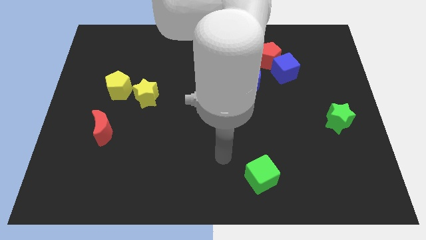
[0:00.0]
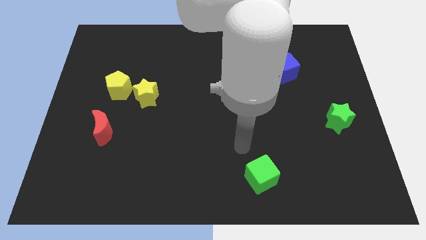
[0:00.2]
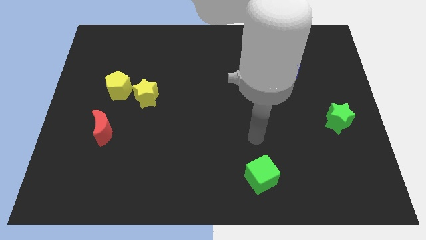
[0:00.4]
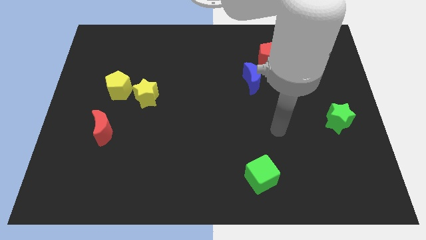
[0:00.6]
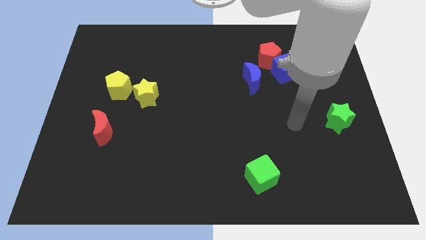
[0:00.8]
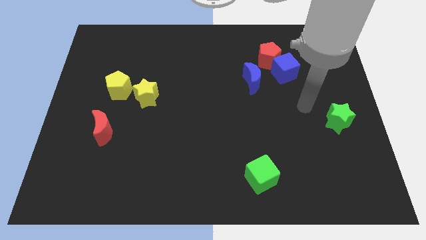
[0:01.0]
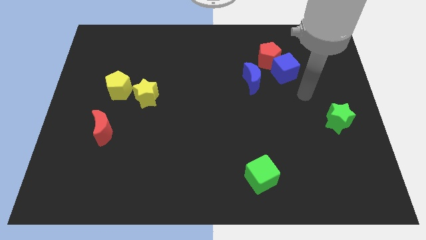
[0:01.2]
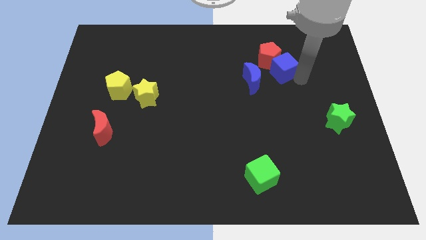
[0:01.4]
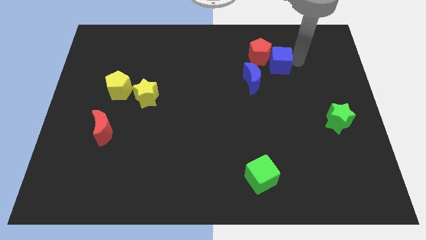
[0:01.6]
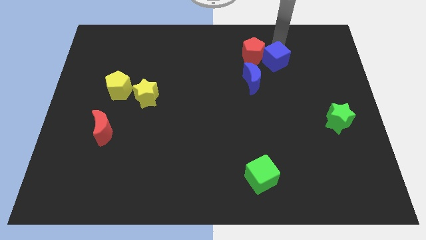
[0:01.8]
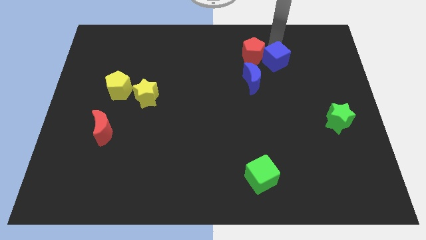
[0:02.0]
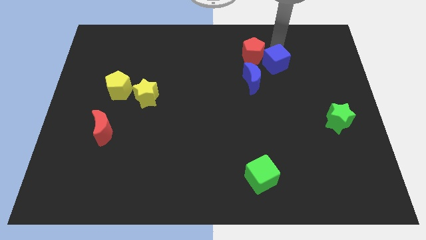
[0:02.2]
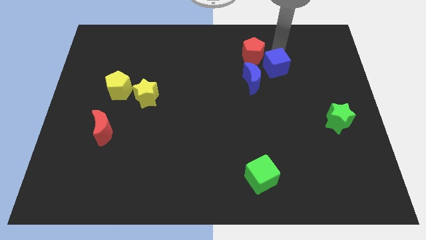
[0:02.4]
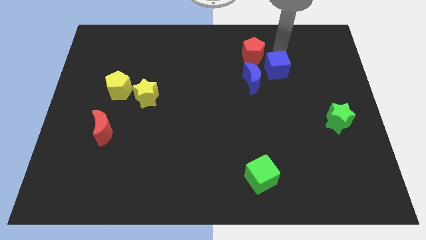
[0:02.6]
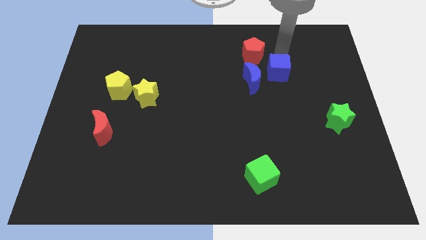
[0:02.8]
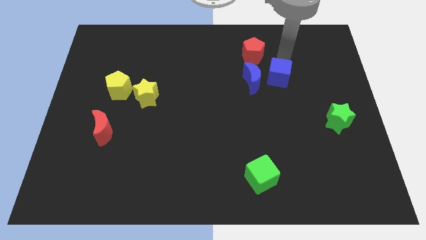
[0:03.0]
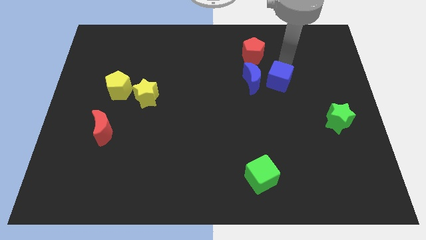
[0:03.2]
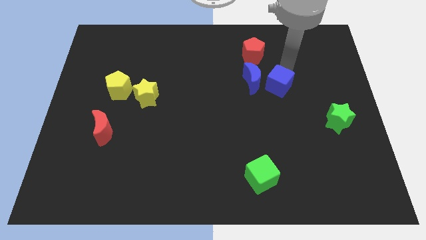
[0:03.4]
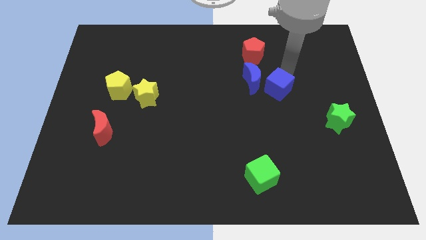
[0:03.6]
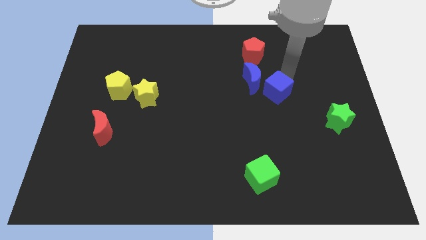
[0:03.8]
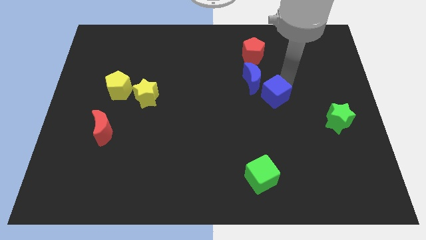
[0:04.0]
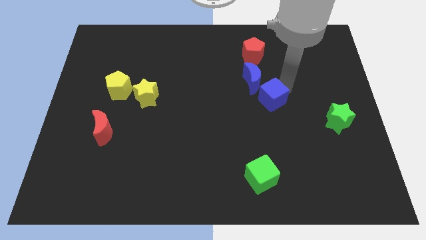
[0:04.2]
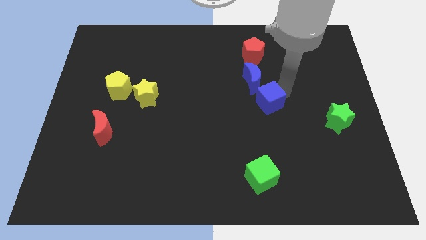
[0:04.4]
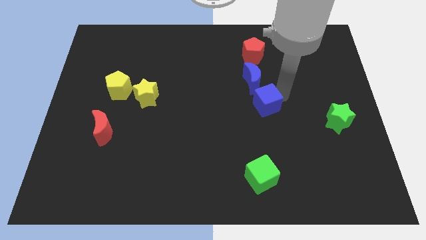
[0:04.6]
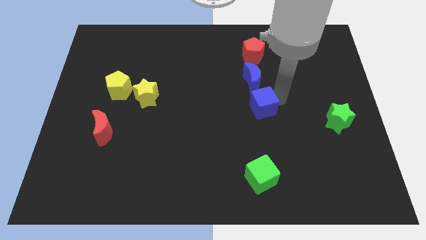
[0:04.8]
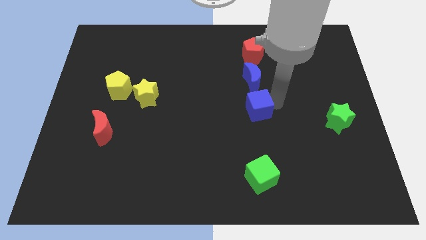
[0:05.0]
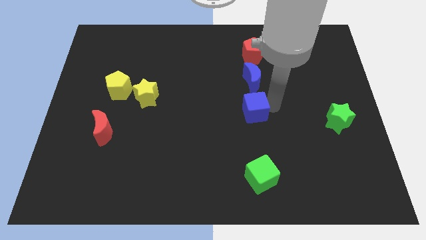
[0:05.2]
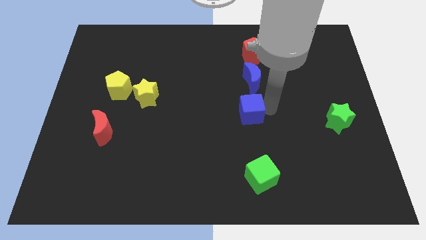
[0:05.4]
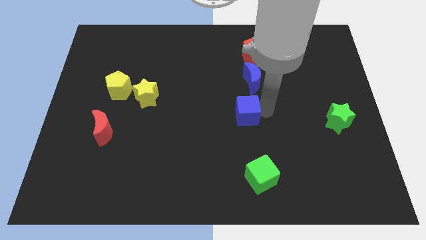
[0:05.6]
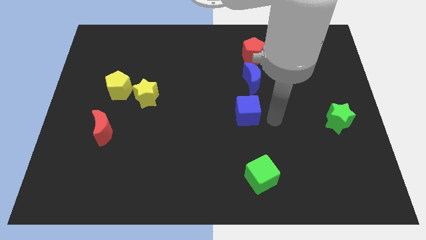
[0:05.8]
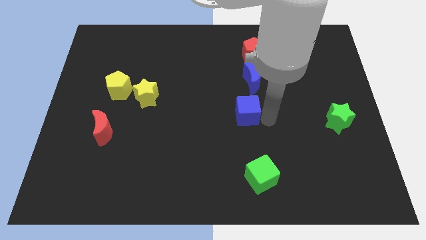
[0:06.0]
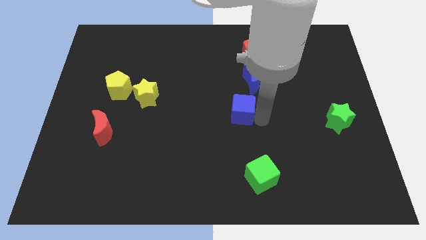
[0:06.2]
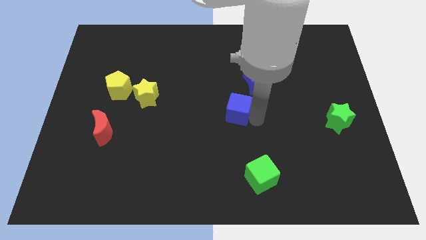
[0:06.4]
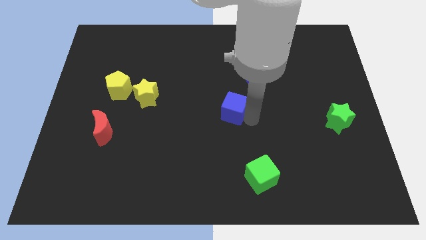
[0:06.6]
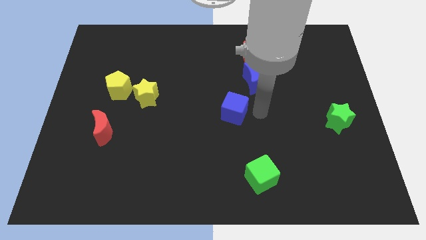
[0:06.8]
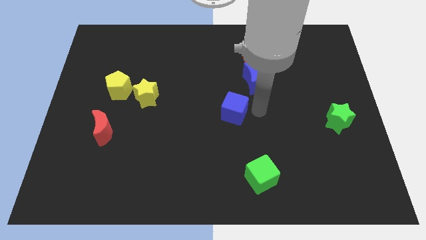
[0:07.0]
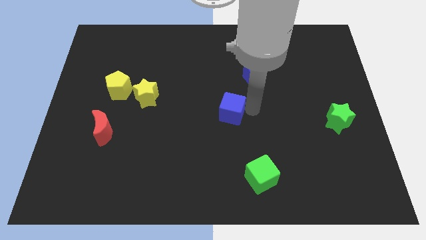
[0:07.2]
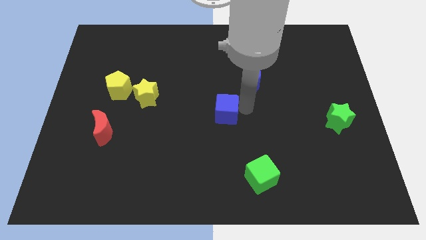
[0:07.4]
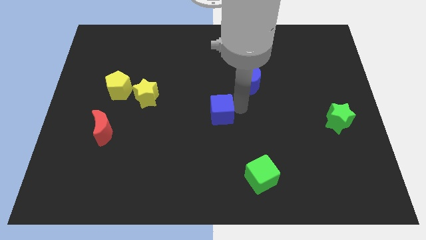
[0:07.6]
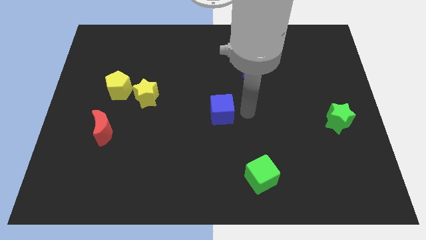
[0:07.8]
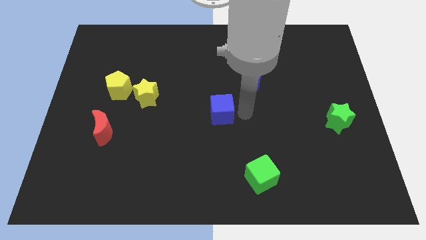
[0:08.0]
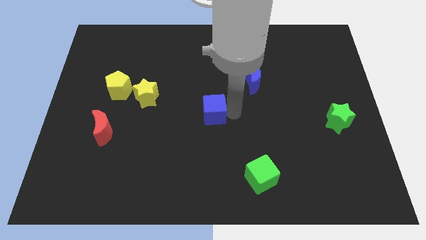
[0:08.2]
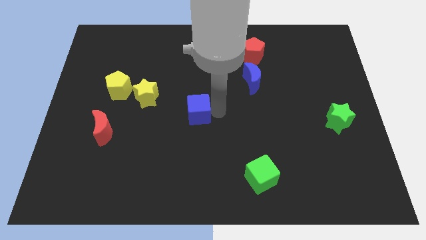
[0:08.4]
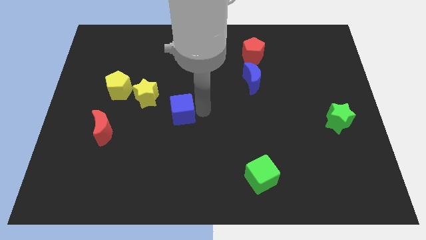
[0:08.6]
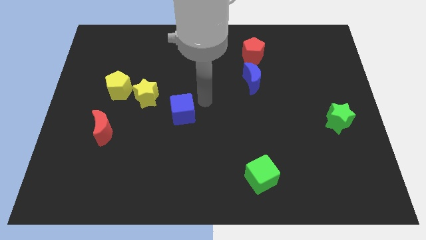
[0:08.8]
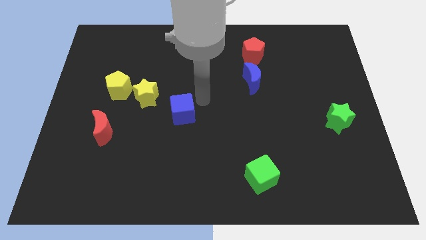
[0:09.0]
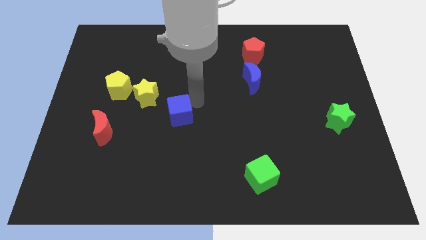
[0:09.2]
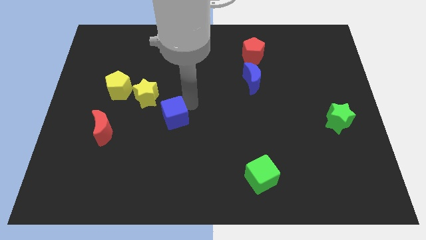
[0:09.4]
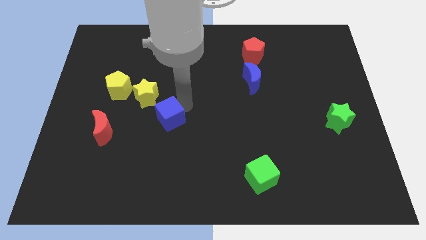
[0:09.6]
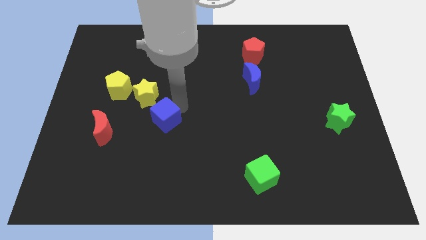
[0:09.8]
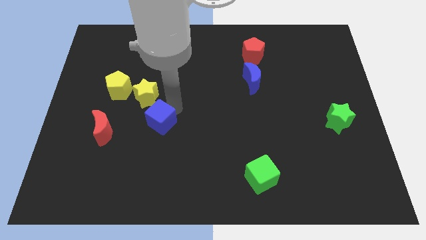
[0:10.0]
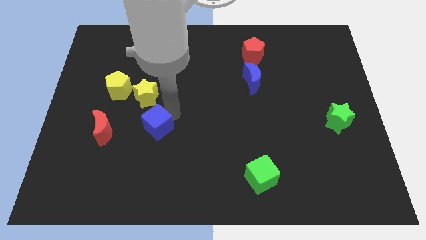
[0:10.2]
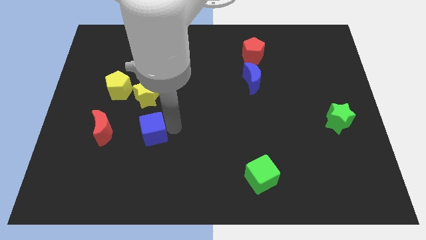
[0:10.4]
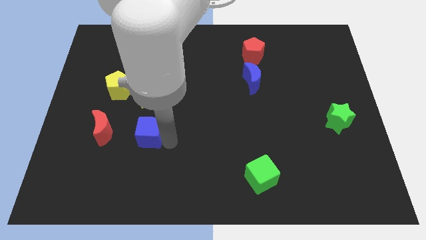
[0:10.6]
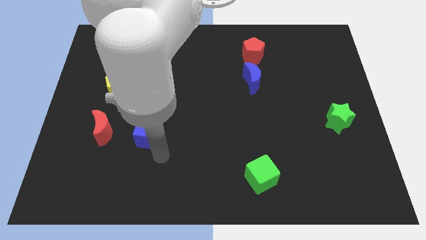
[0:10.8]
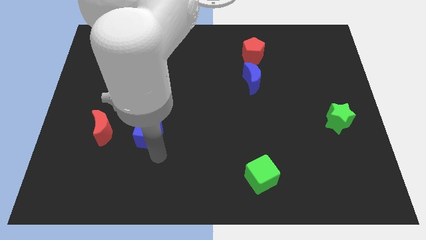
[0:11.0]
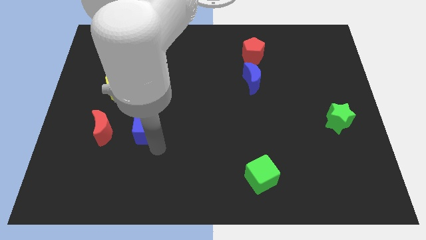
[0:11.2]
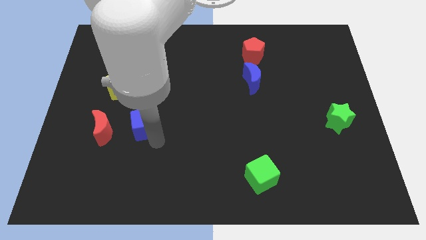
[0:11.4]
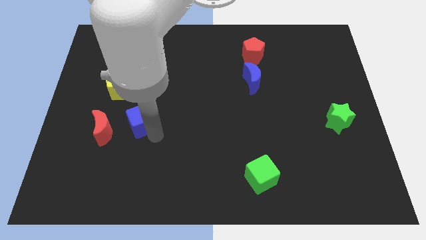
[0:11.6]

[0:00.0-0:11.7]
push the blue cube diagonally down and to the right of the yellow pentagon

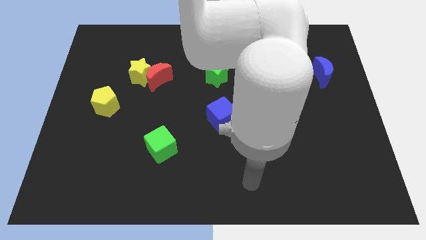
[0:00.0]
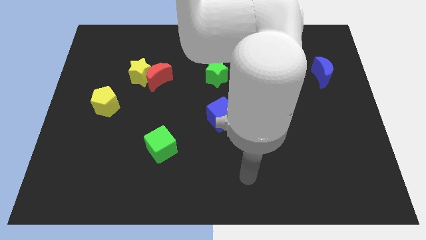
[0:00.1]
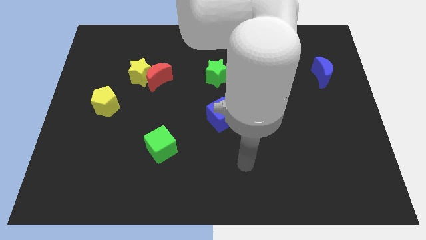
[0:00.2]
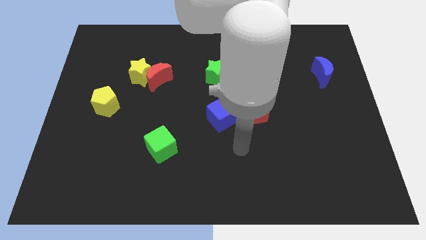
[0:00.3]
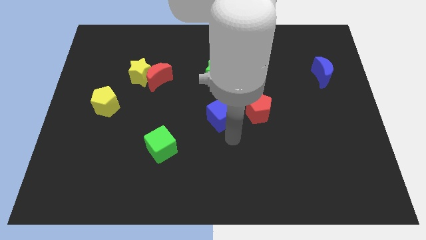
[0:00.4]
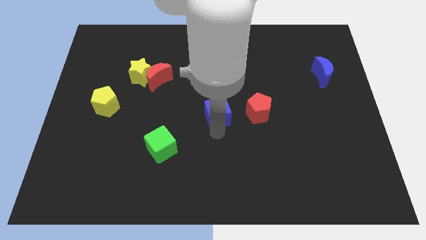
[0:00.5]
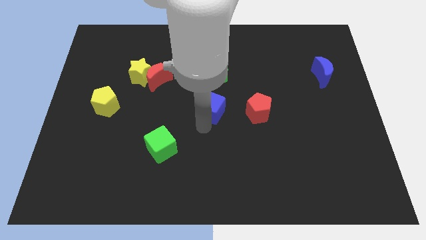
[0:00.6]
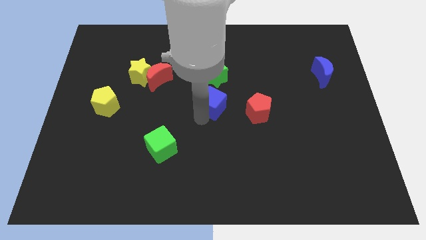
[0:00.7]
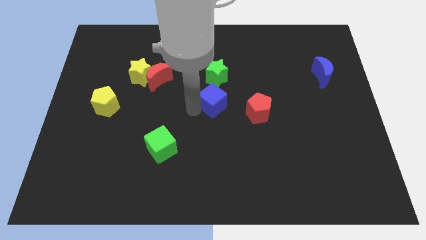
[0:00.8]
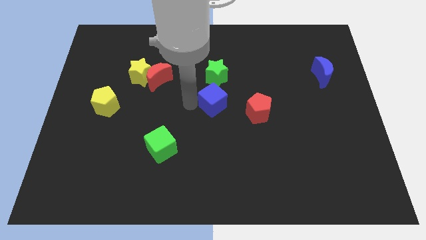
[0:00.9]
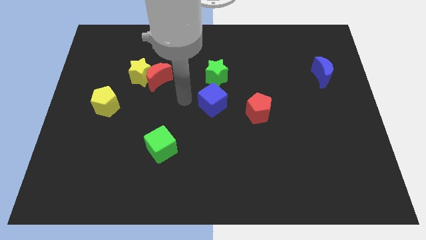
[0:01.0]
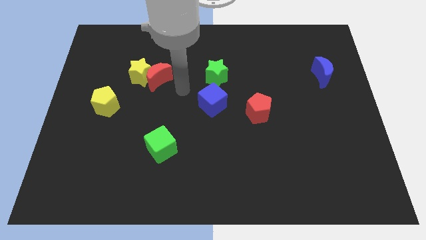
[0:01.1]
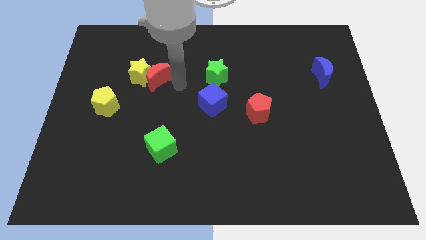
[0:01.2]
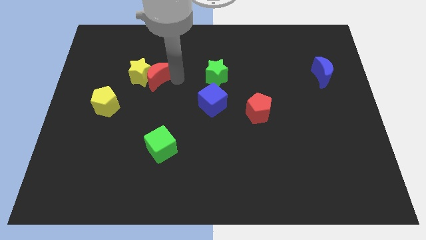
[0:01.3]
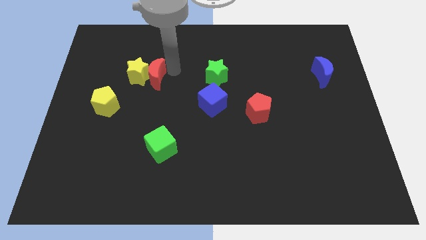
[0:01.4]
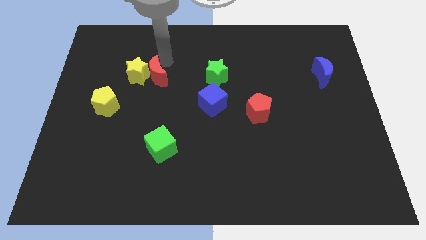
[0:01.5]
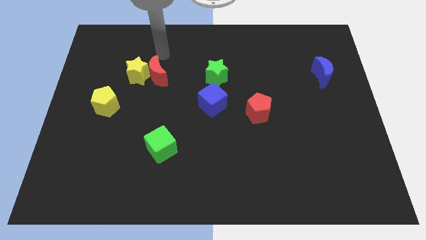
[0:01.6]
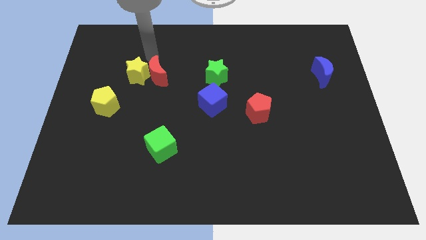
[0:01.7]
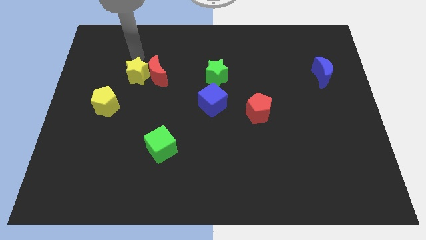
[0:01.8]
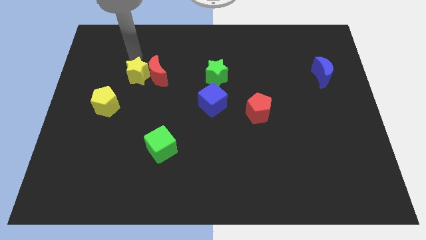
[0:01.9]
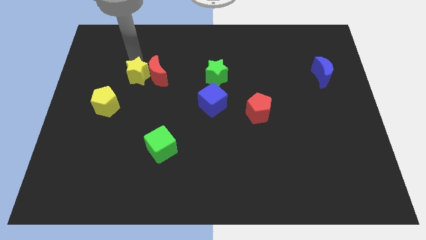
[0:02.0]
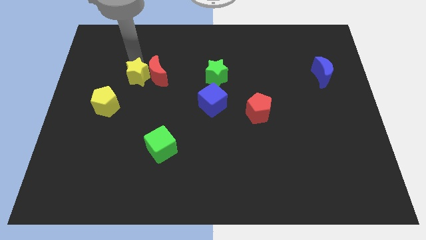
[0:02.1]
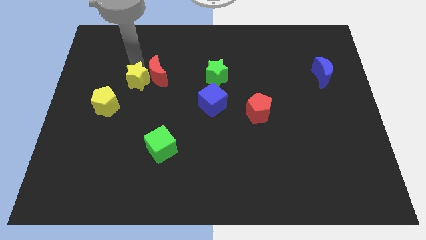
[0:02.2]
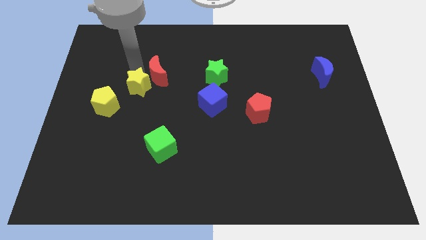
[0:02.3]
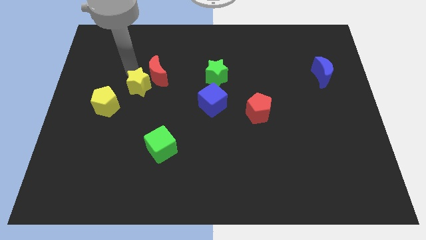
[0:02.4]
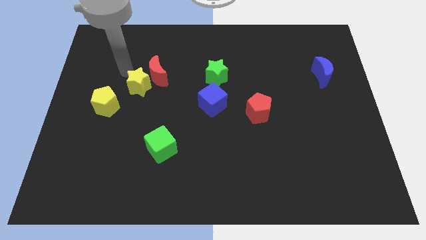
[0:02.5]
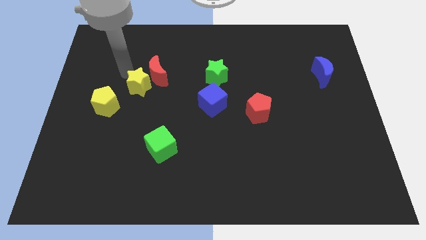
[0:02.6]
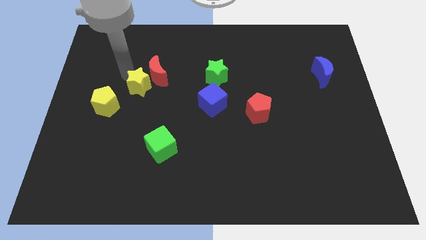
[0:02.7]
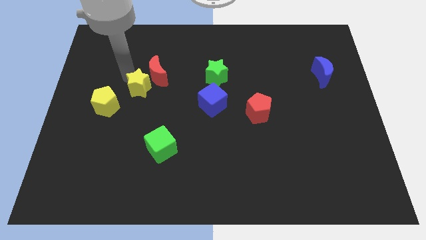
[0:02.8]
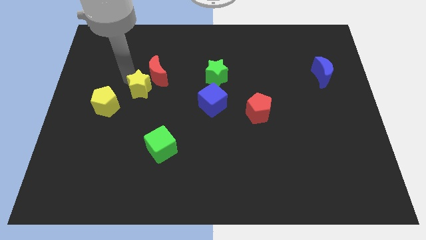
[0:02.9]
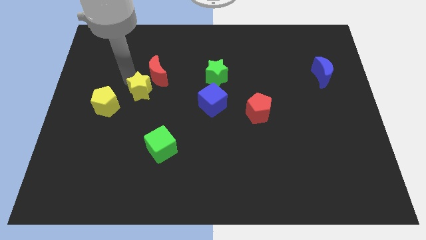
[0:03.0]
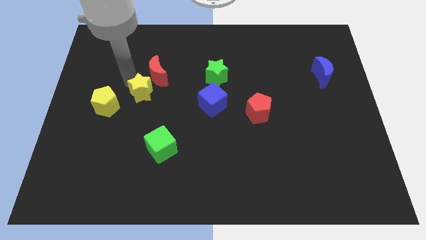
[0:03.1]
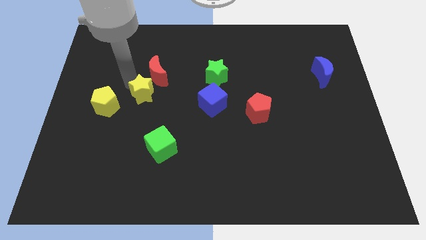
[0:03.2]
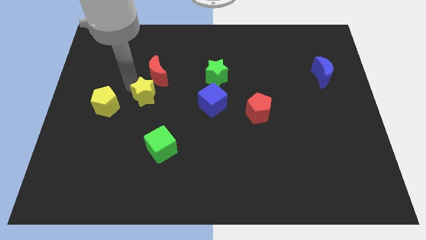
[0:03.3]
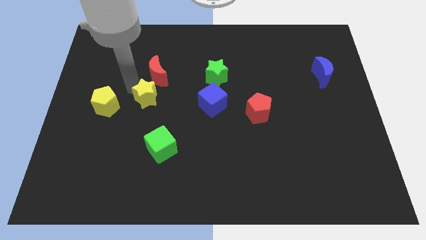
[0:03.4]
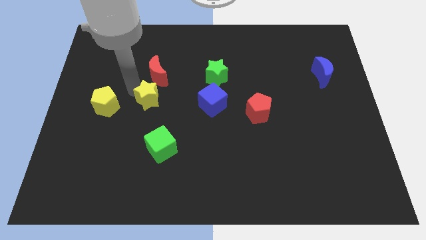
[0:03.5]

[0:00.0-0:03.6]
slide the yellow star above the green cube
